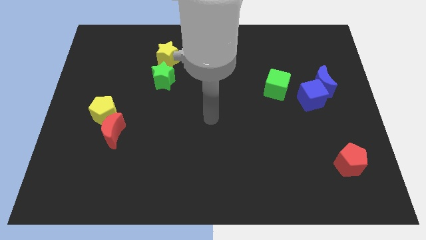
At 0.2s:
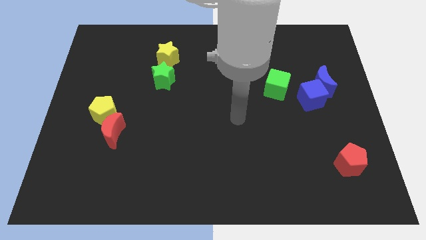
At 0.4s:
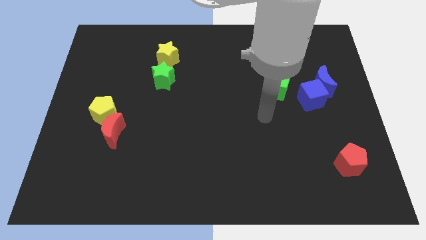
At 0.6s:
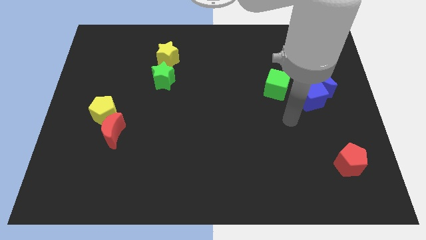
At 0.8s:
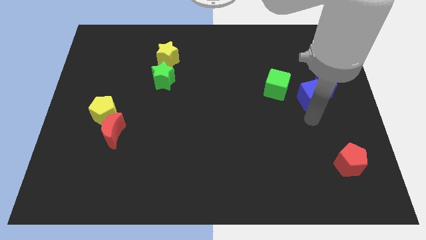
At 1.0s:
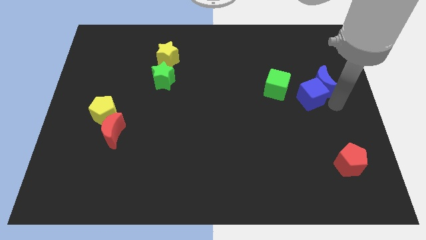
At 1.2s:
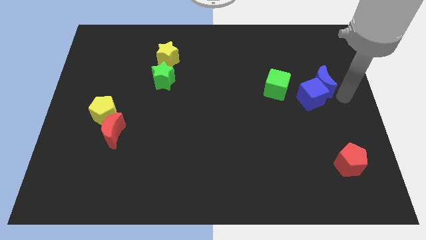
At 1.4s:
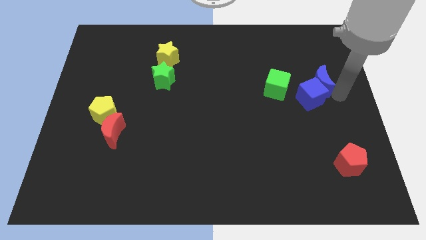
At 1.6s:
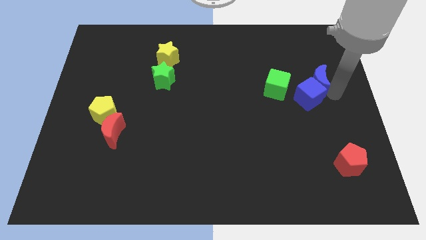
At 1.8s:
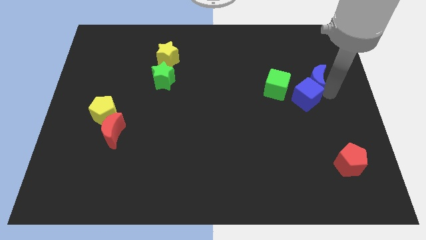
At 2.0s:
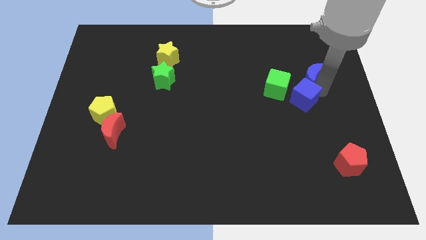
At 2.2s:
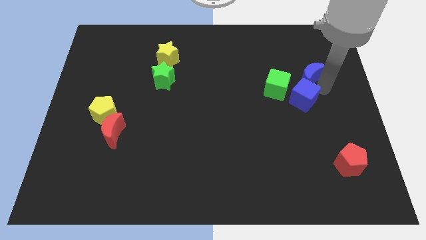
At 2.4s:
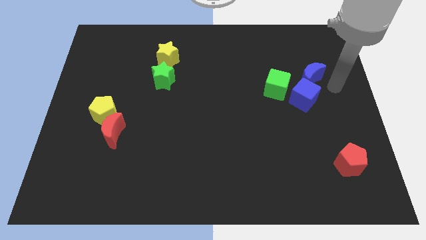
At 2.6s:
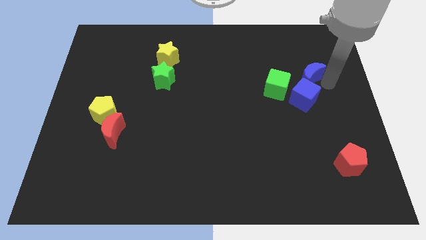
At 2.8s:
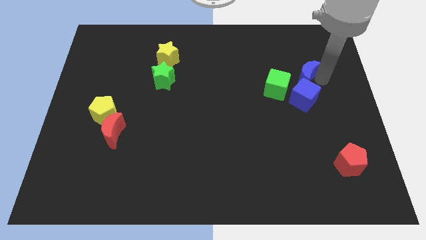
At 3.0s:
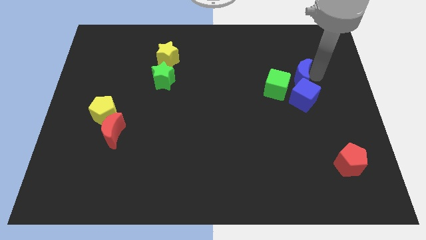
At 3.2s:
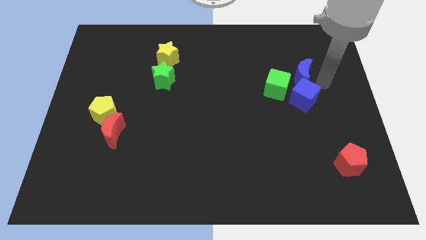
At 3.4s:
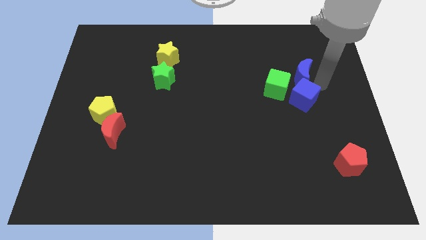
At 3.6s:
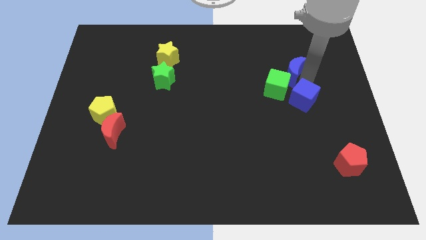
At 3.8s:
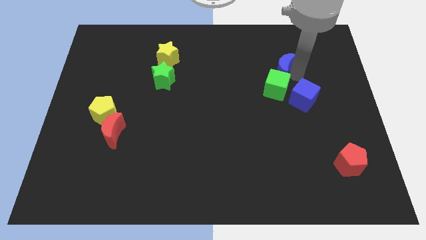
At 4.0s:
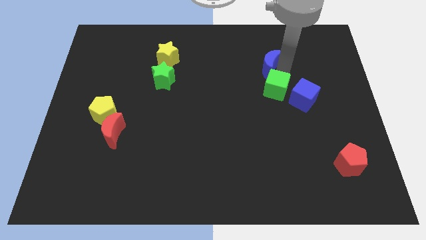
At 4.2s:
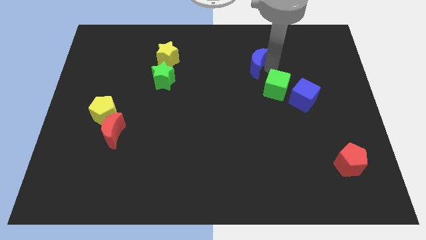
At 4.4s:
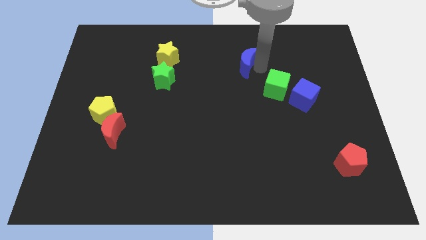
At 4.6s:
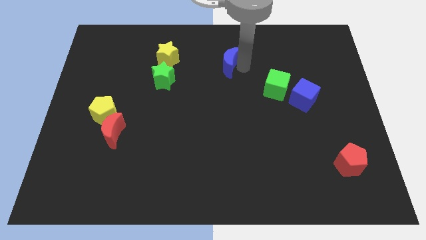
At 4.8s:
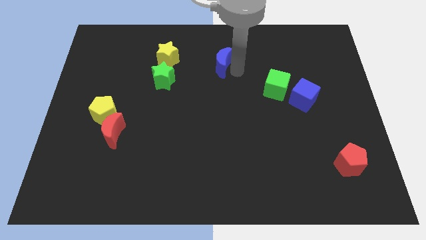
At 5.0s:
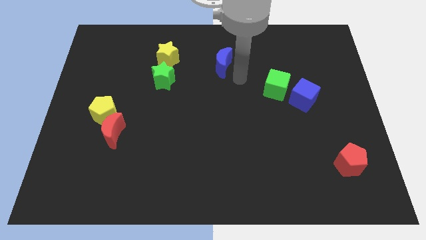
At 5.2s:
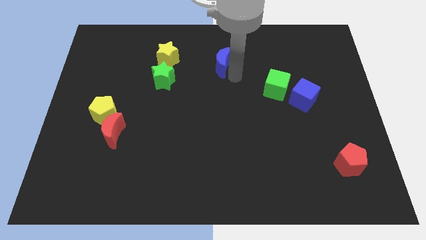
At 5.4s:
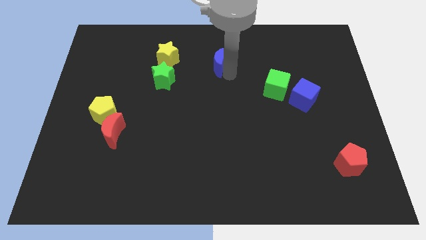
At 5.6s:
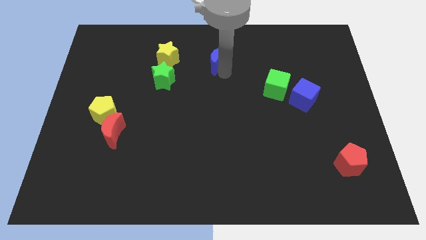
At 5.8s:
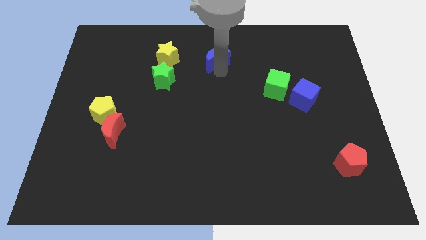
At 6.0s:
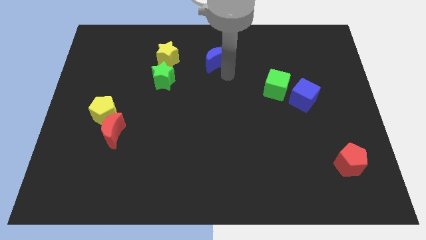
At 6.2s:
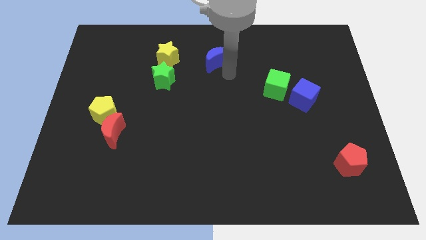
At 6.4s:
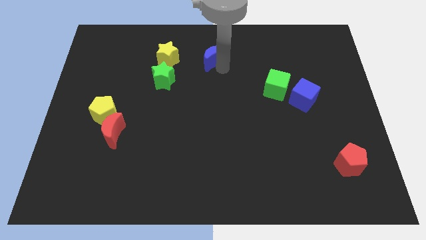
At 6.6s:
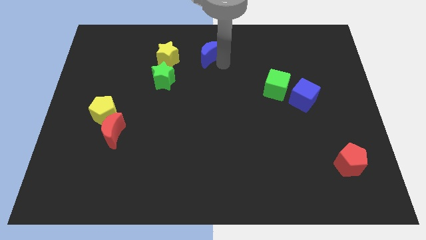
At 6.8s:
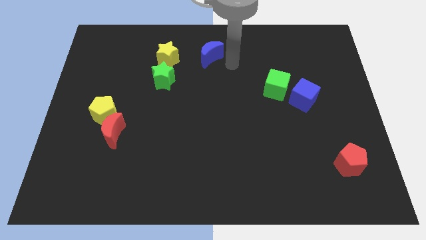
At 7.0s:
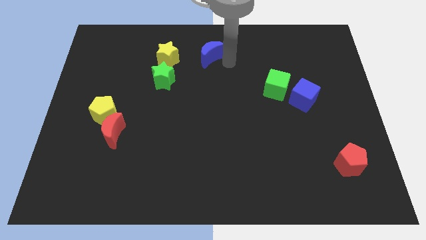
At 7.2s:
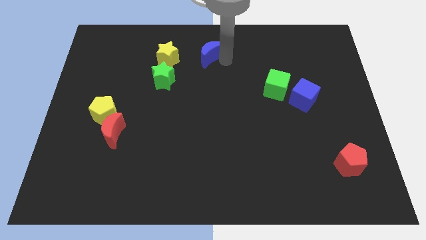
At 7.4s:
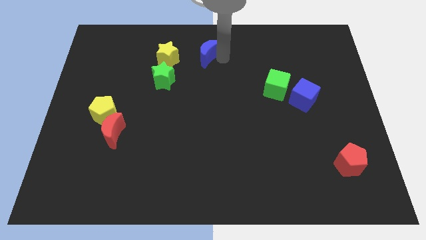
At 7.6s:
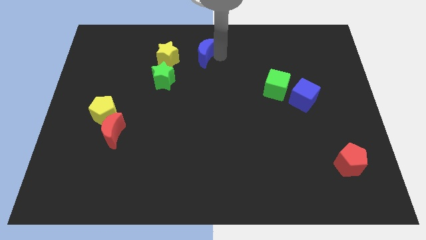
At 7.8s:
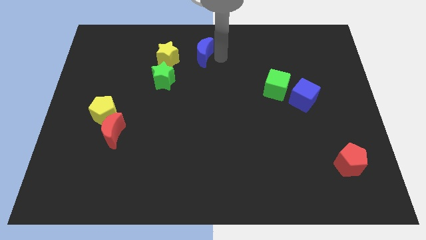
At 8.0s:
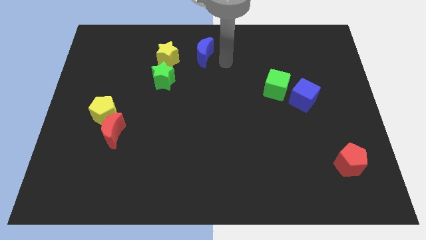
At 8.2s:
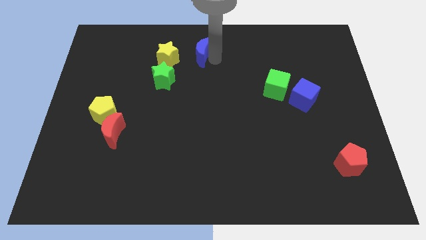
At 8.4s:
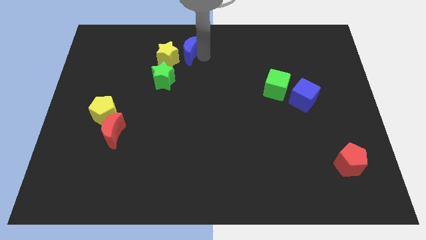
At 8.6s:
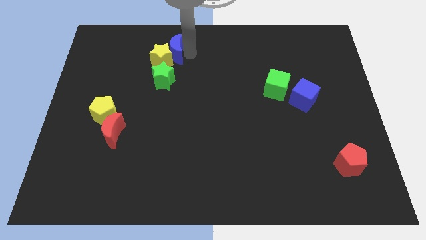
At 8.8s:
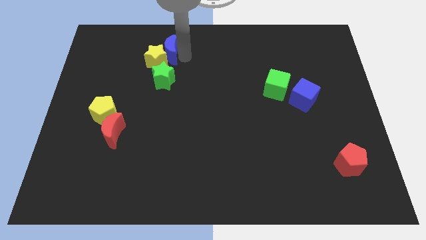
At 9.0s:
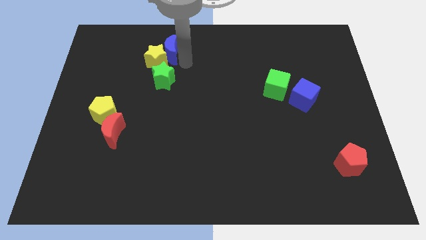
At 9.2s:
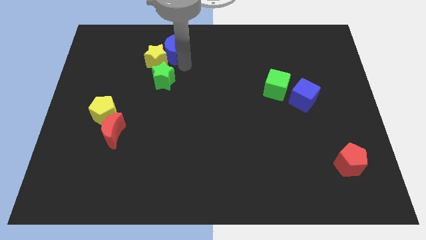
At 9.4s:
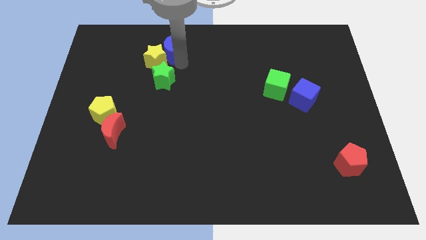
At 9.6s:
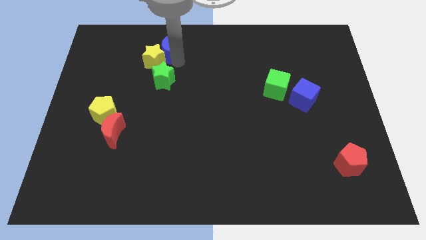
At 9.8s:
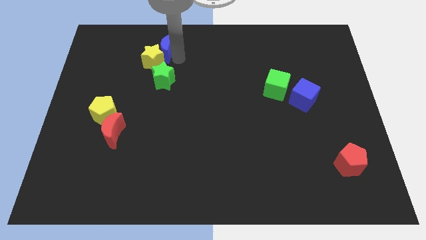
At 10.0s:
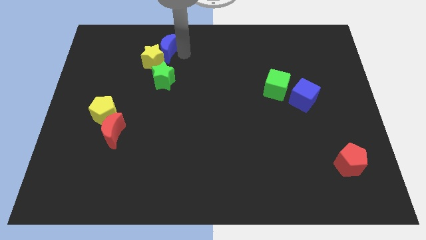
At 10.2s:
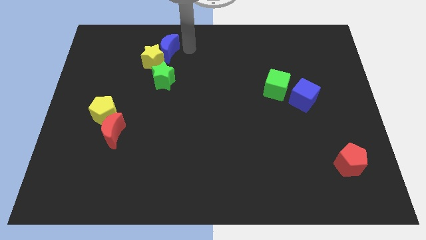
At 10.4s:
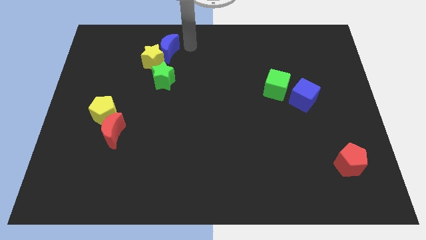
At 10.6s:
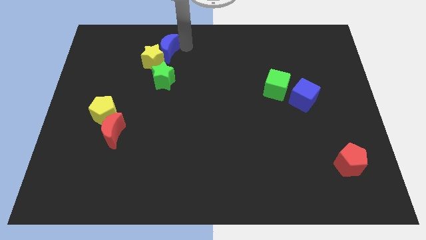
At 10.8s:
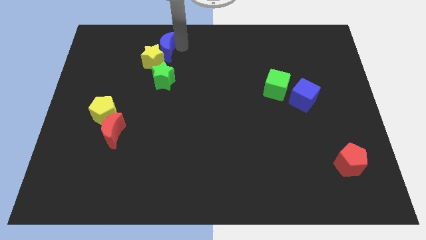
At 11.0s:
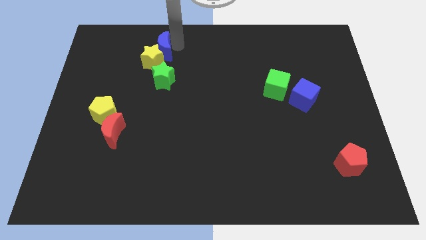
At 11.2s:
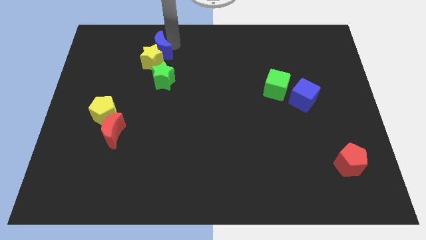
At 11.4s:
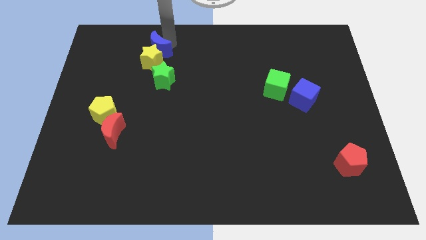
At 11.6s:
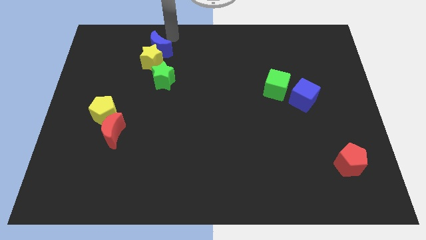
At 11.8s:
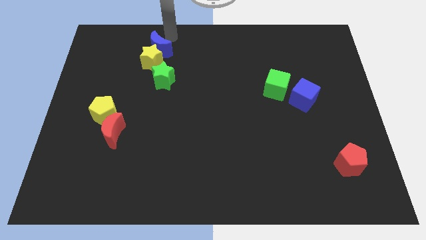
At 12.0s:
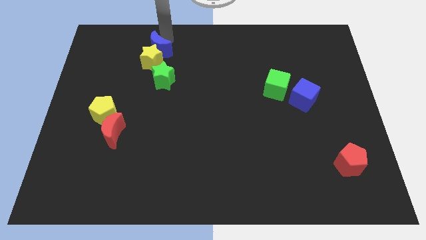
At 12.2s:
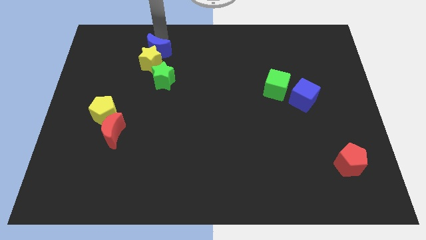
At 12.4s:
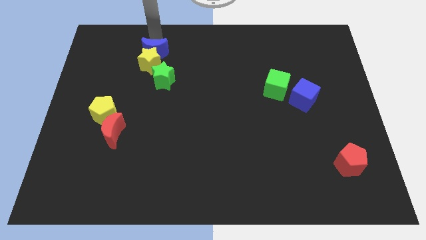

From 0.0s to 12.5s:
put the blue moon to the top left of the green star

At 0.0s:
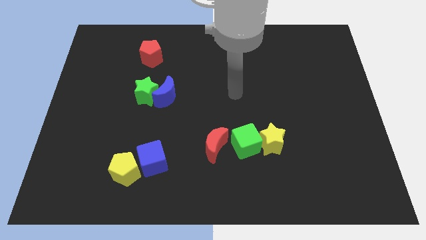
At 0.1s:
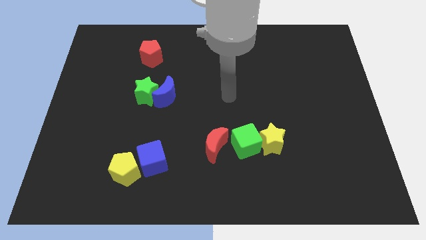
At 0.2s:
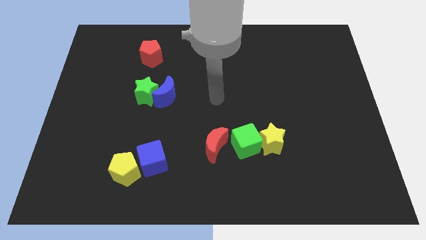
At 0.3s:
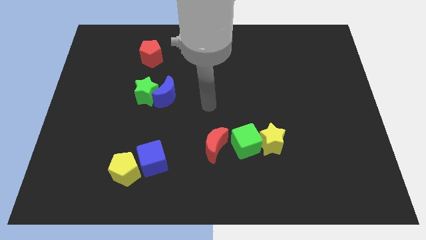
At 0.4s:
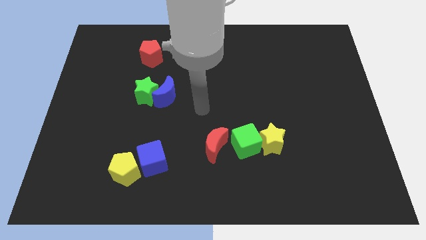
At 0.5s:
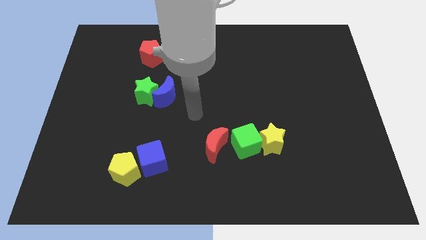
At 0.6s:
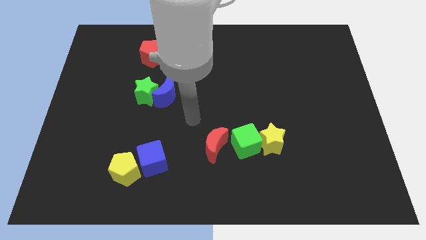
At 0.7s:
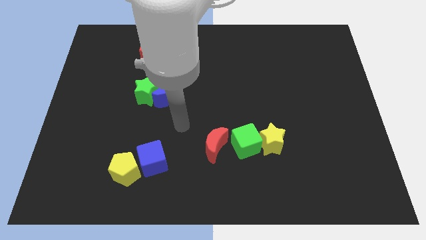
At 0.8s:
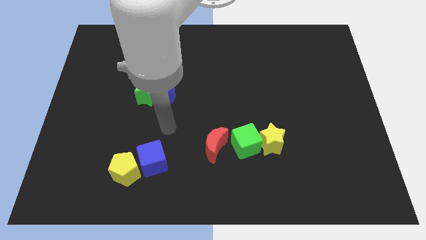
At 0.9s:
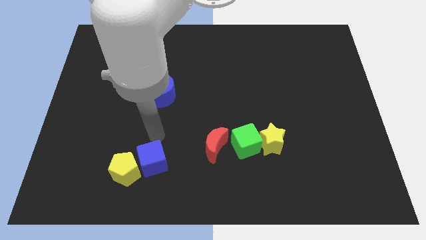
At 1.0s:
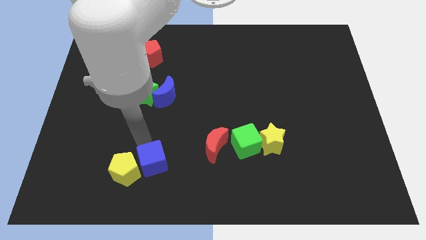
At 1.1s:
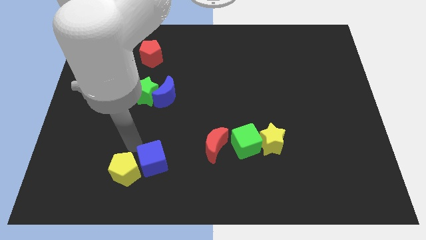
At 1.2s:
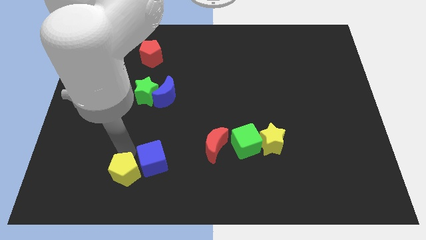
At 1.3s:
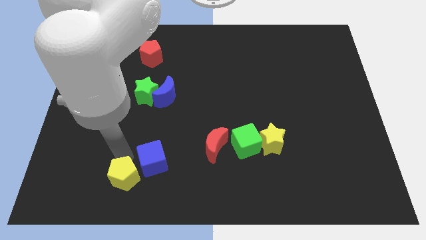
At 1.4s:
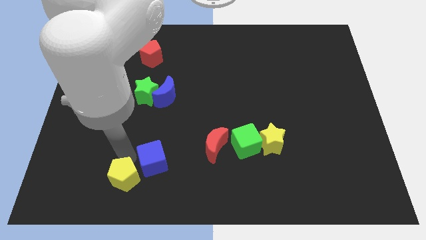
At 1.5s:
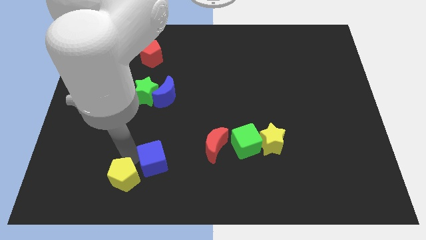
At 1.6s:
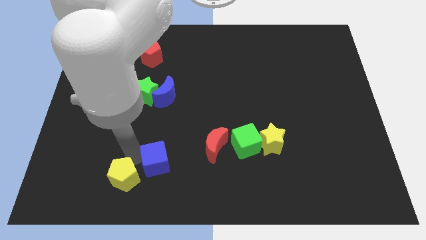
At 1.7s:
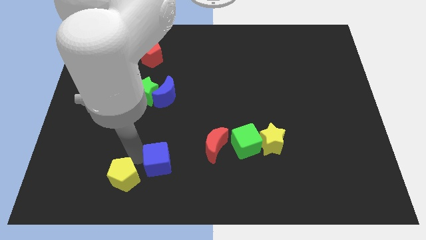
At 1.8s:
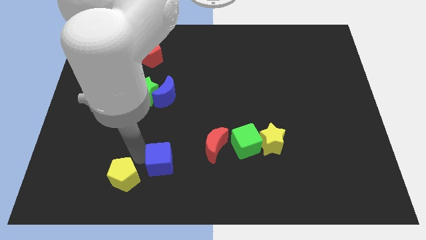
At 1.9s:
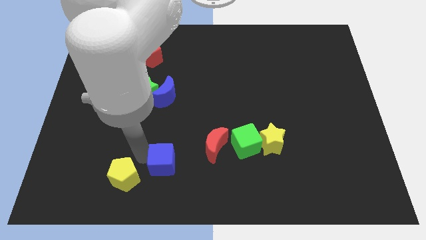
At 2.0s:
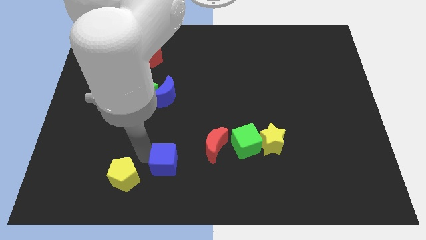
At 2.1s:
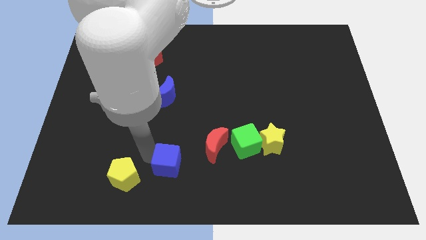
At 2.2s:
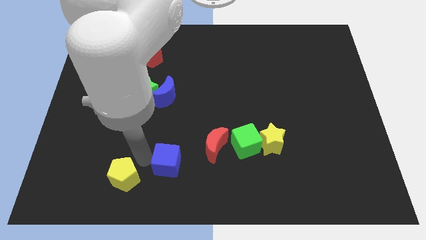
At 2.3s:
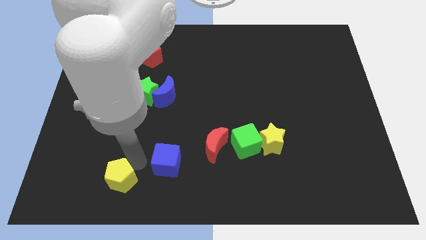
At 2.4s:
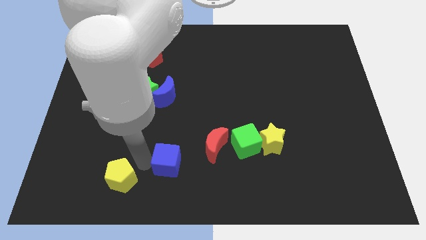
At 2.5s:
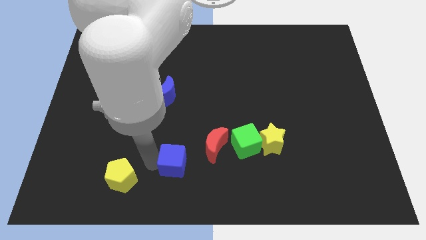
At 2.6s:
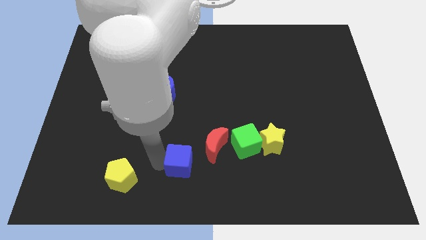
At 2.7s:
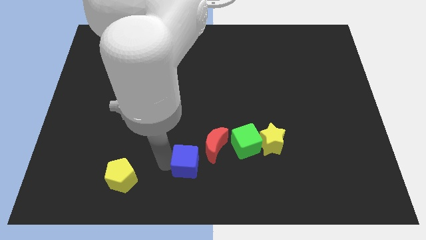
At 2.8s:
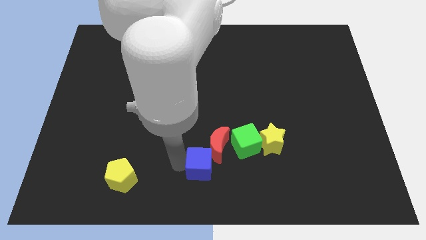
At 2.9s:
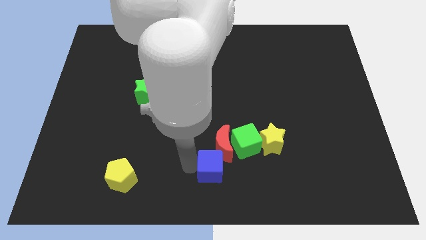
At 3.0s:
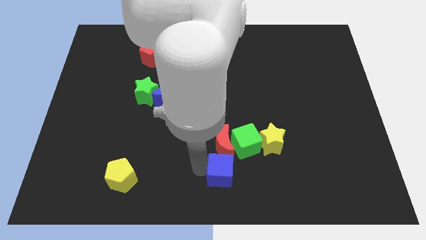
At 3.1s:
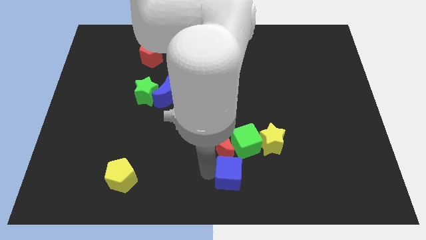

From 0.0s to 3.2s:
move the blue cube to the bottom left of the yellow star
